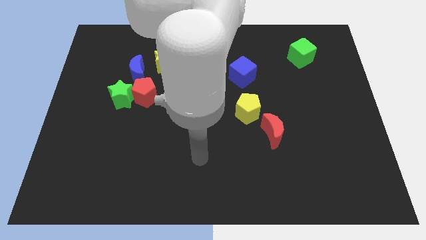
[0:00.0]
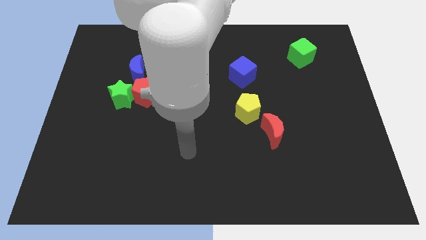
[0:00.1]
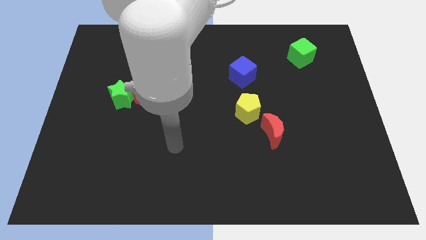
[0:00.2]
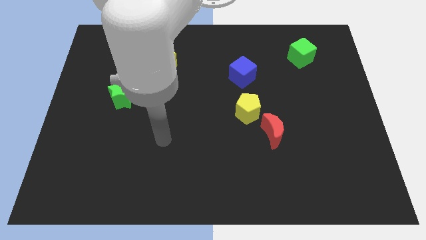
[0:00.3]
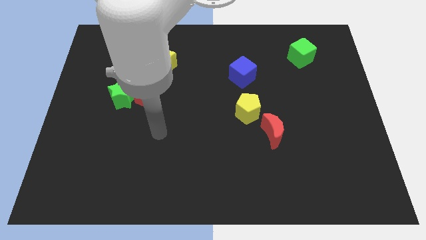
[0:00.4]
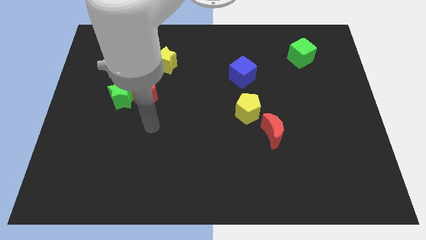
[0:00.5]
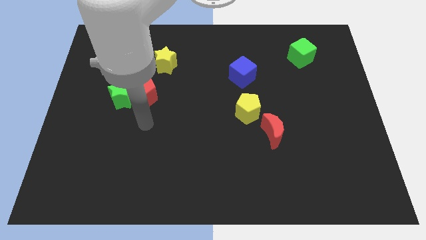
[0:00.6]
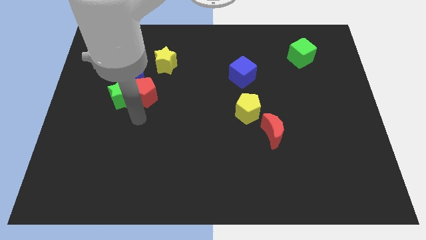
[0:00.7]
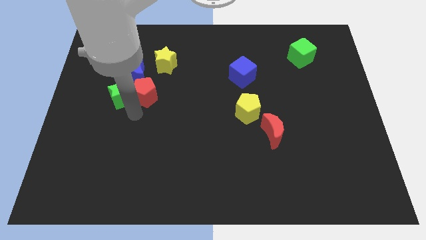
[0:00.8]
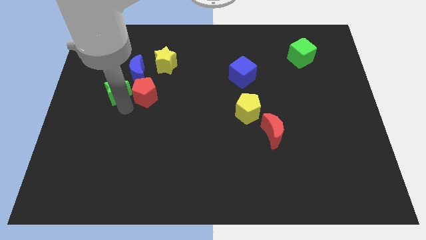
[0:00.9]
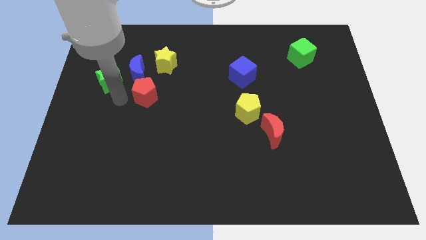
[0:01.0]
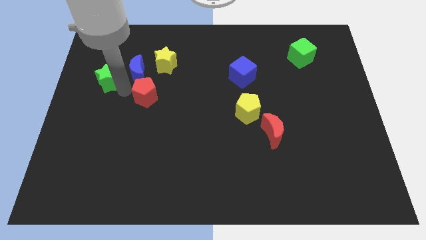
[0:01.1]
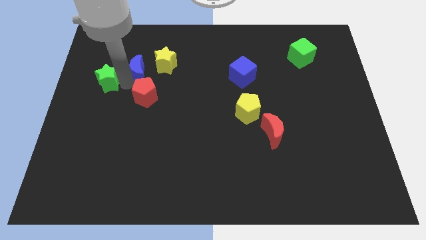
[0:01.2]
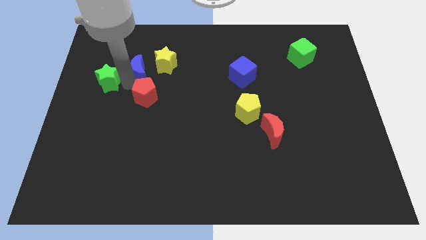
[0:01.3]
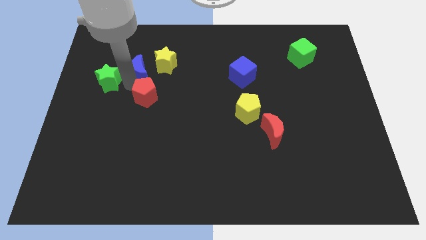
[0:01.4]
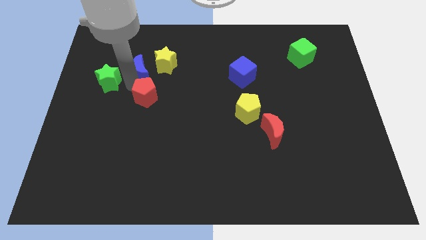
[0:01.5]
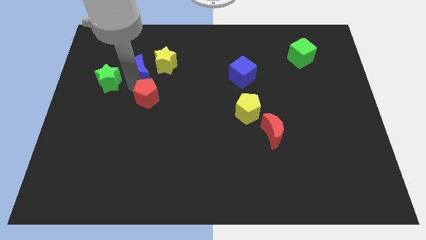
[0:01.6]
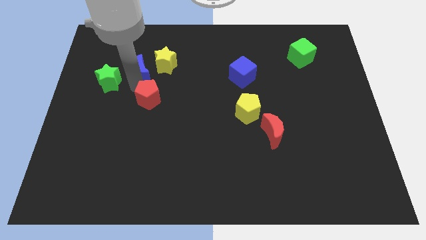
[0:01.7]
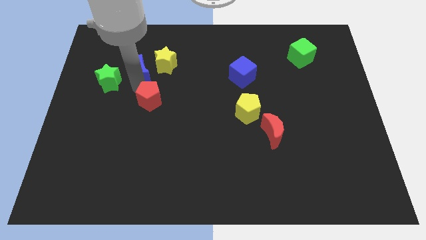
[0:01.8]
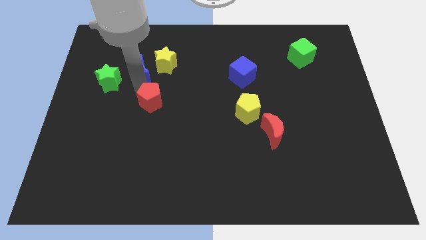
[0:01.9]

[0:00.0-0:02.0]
separate the red pentagon from the green star and blue moon

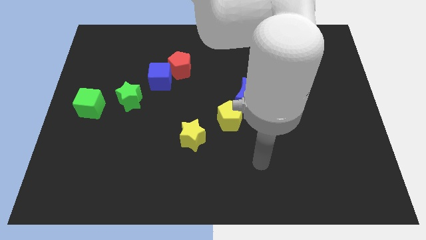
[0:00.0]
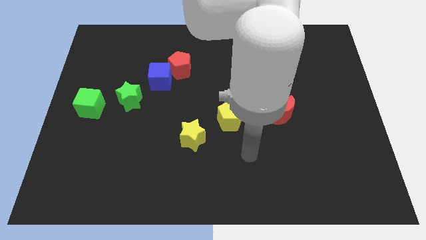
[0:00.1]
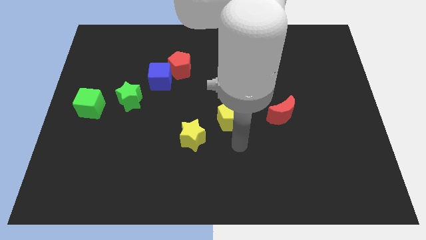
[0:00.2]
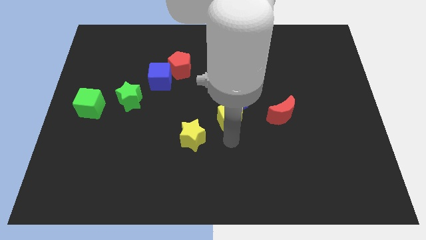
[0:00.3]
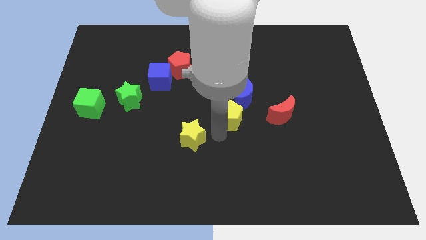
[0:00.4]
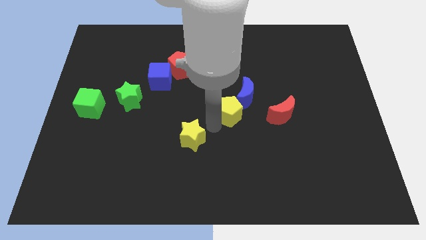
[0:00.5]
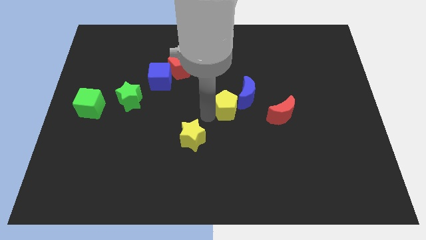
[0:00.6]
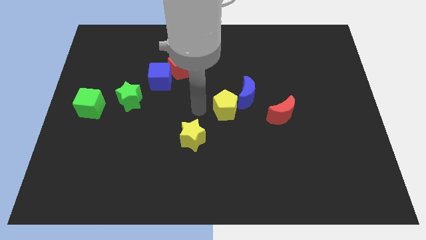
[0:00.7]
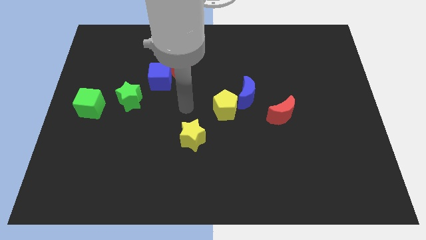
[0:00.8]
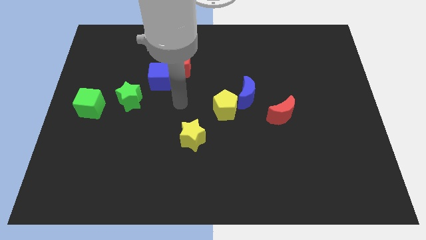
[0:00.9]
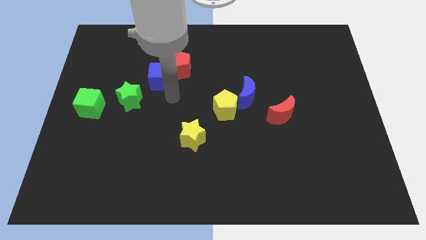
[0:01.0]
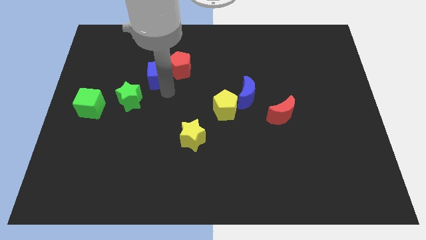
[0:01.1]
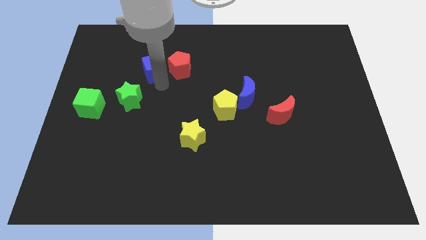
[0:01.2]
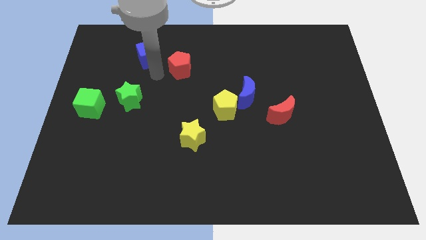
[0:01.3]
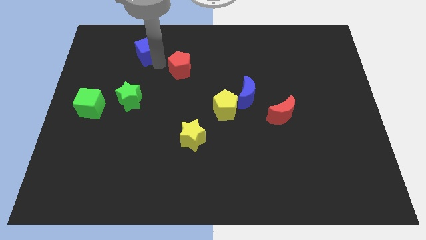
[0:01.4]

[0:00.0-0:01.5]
move the red pentagon away from the blue cube

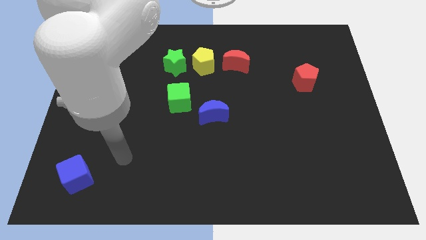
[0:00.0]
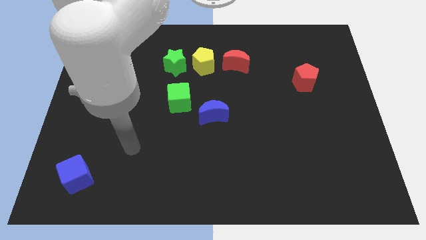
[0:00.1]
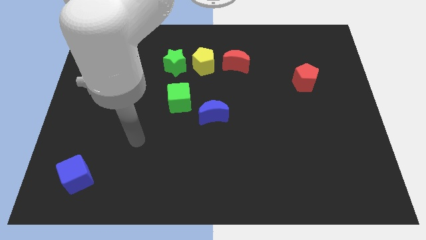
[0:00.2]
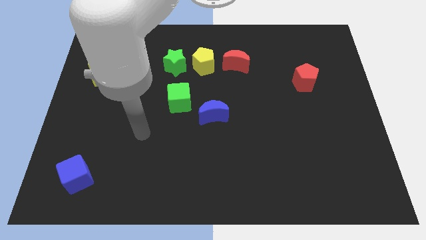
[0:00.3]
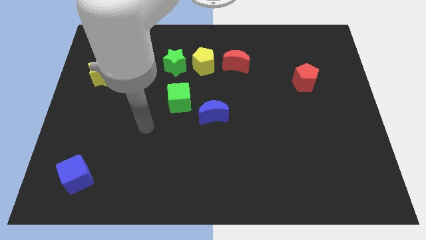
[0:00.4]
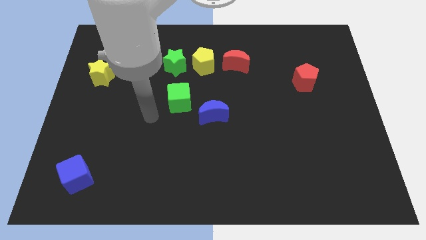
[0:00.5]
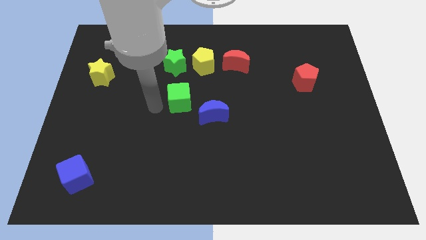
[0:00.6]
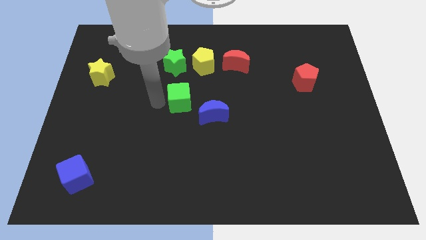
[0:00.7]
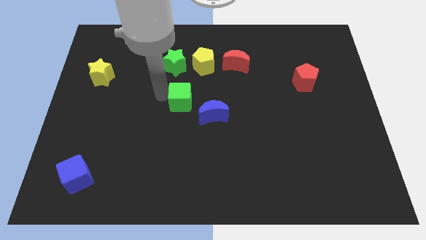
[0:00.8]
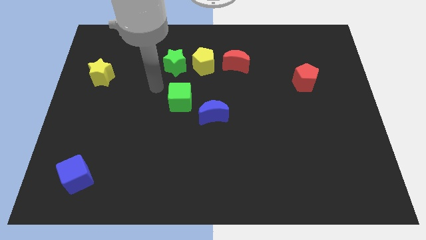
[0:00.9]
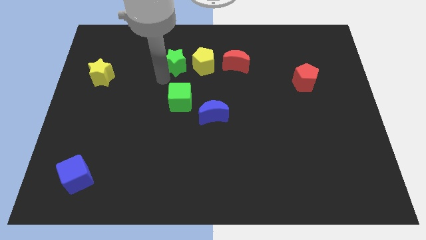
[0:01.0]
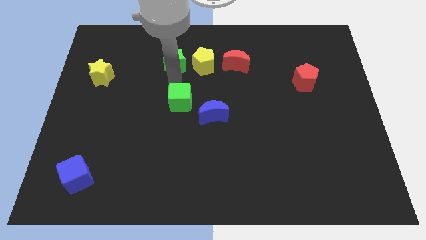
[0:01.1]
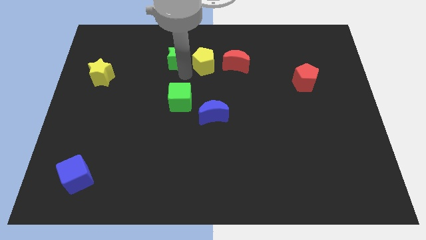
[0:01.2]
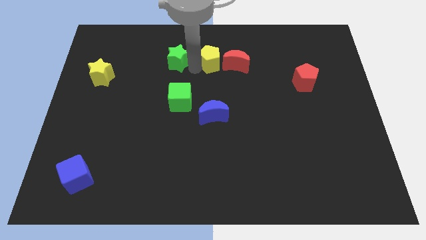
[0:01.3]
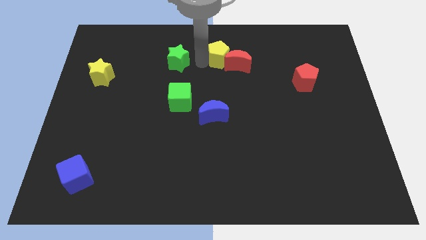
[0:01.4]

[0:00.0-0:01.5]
move the green star away from the yellow pentagon

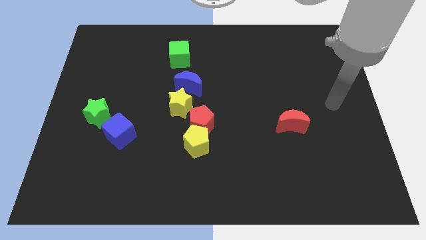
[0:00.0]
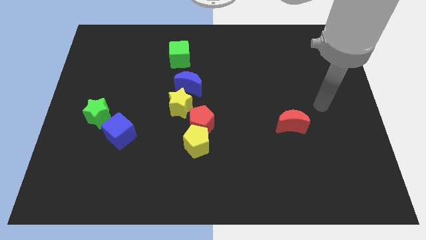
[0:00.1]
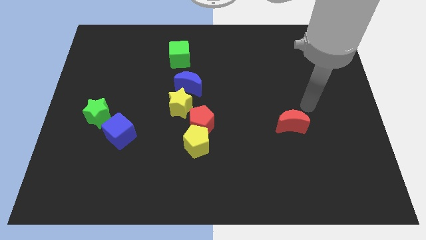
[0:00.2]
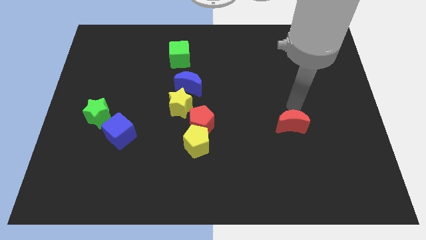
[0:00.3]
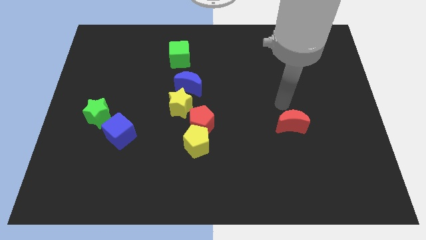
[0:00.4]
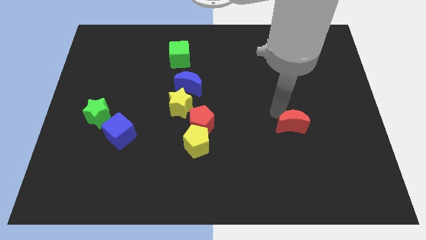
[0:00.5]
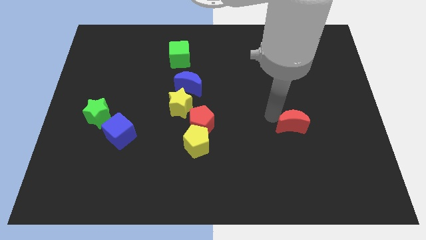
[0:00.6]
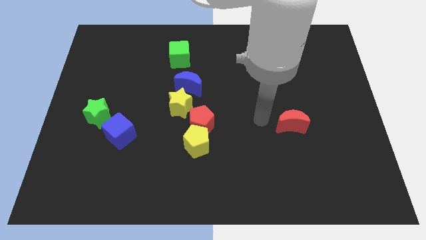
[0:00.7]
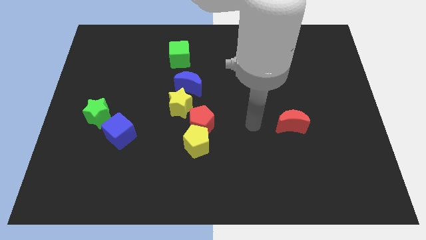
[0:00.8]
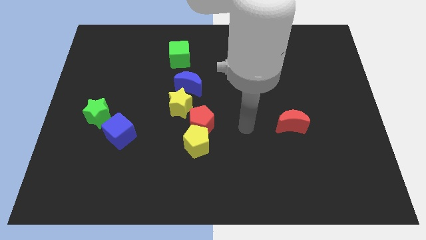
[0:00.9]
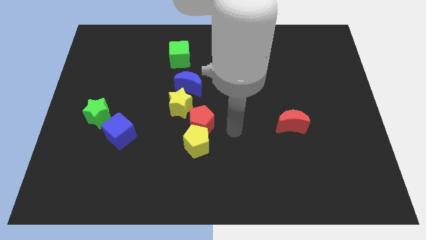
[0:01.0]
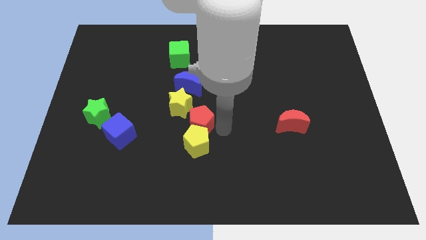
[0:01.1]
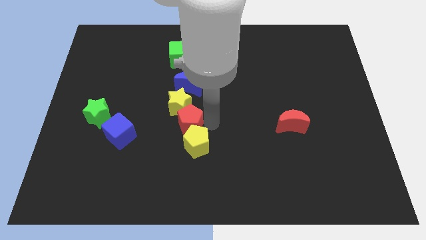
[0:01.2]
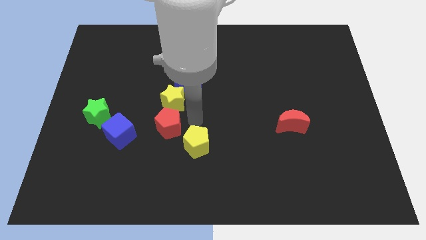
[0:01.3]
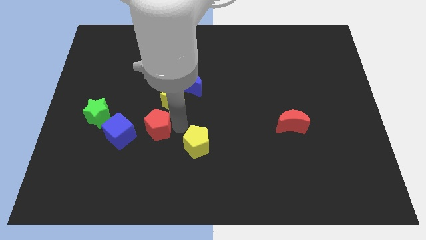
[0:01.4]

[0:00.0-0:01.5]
separate the yellow pentagon from the red pentagon

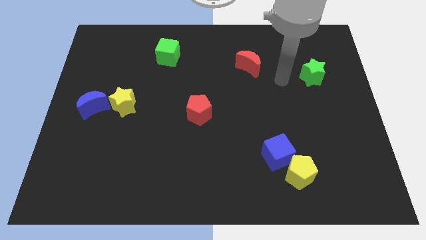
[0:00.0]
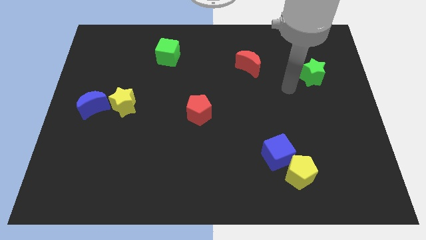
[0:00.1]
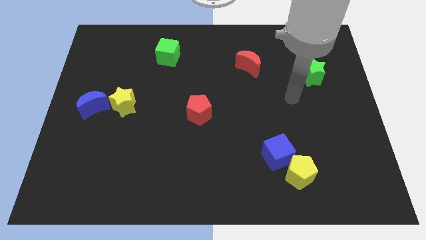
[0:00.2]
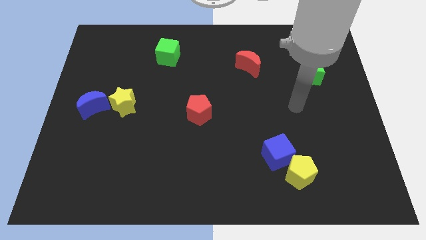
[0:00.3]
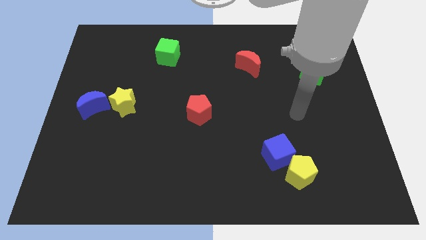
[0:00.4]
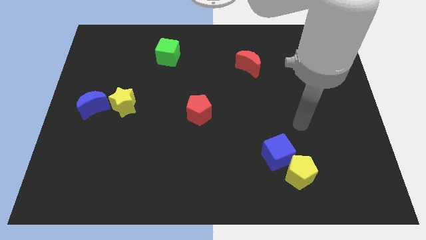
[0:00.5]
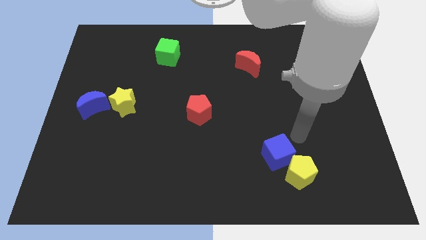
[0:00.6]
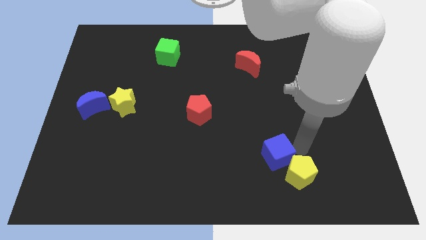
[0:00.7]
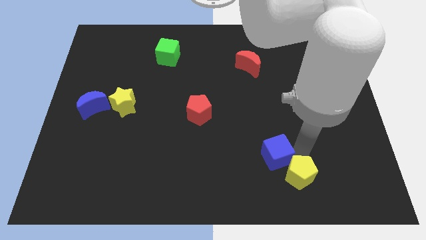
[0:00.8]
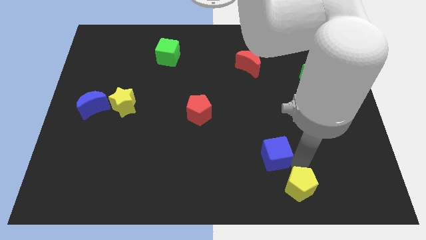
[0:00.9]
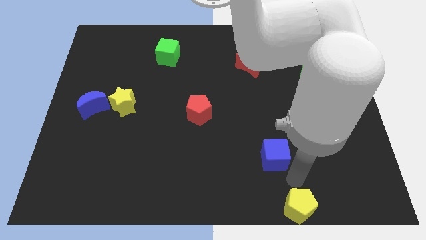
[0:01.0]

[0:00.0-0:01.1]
pull the blue cube apart from the yellow pentagon

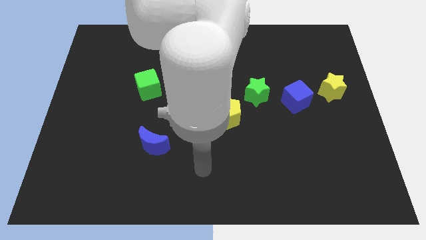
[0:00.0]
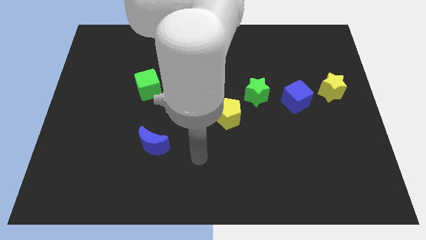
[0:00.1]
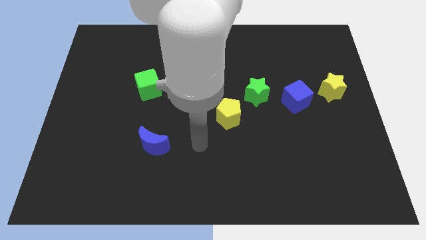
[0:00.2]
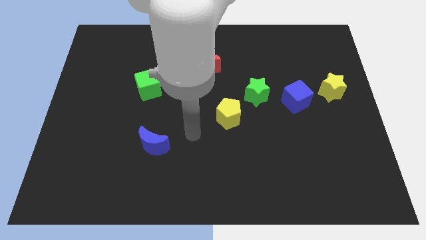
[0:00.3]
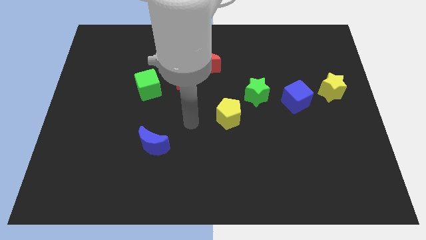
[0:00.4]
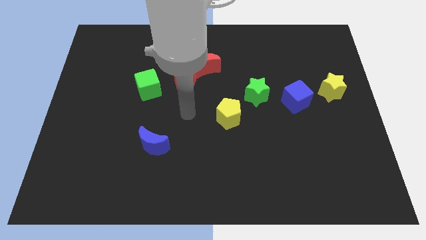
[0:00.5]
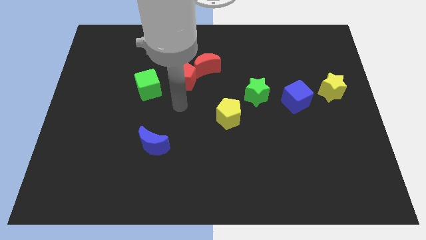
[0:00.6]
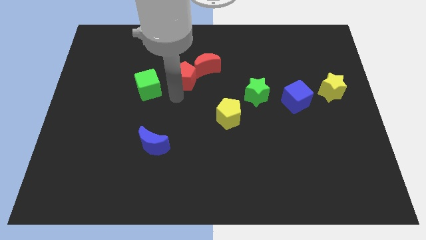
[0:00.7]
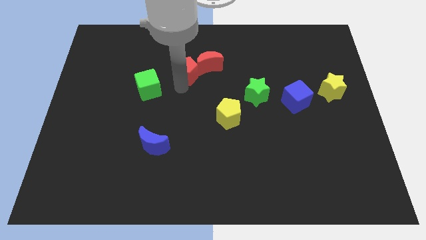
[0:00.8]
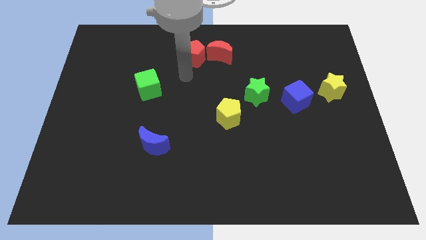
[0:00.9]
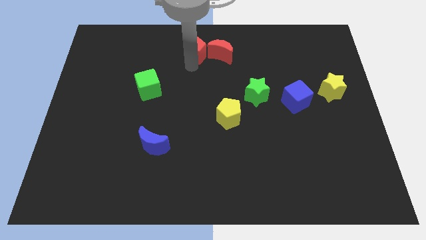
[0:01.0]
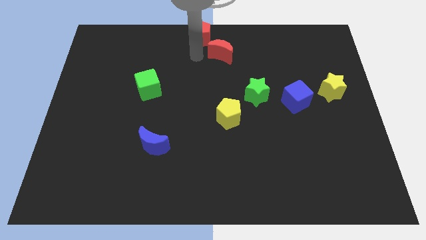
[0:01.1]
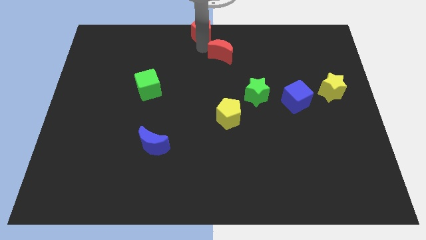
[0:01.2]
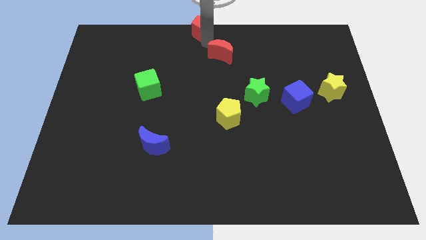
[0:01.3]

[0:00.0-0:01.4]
separate the red moon from the red pentagon

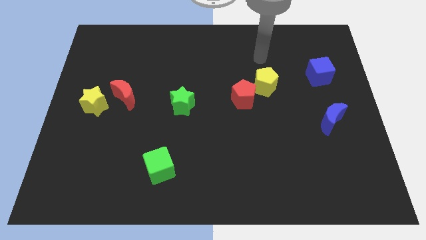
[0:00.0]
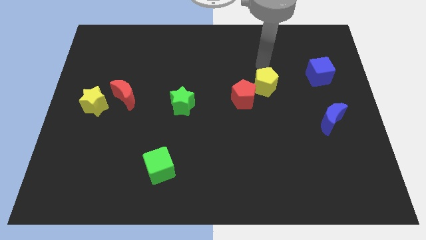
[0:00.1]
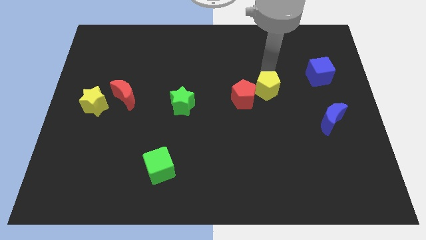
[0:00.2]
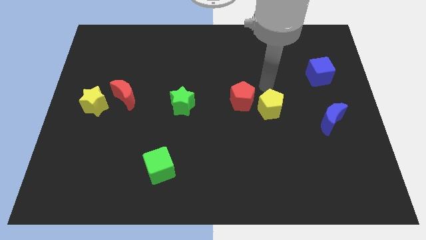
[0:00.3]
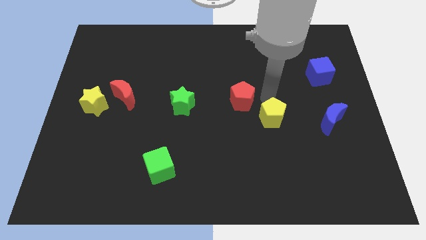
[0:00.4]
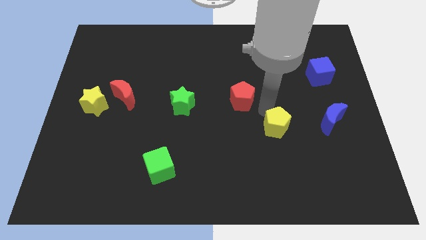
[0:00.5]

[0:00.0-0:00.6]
move the red pentagon away from the yellow pentagon
